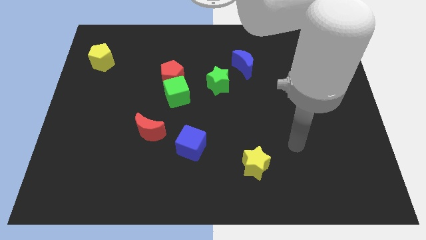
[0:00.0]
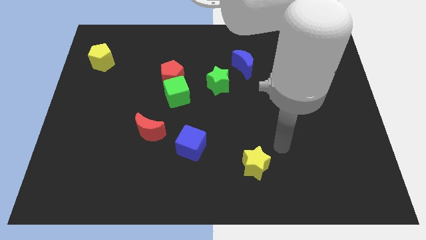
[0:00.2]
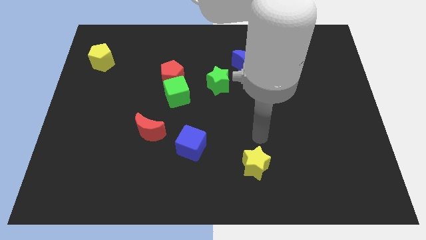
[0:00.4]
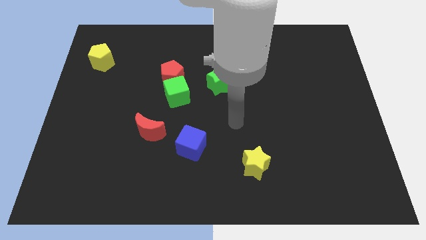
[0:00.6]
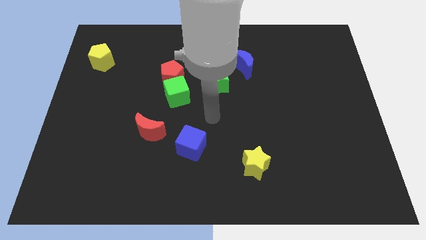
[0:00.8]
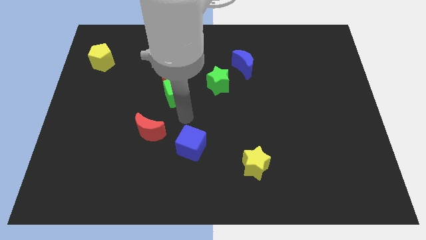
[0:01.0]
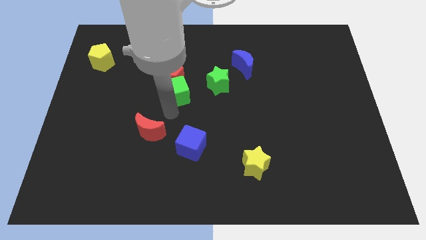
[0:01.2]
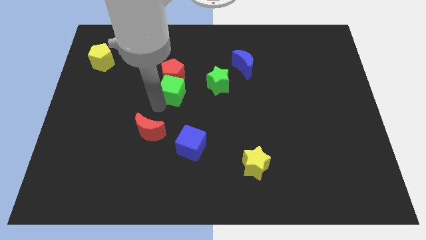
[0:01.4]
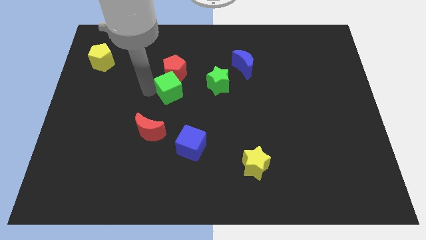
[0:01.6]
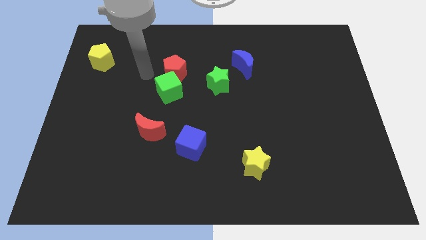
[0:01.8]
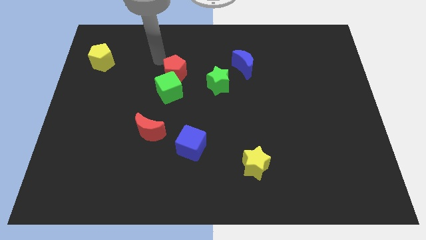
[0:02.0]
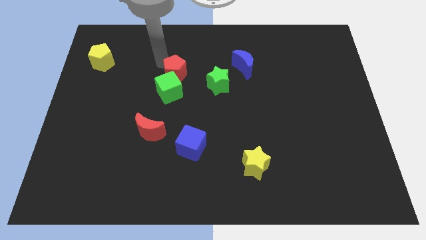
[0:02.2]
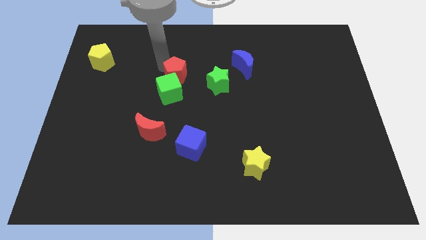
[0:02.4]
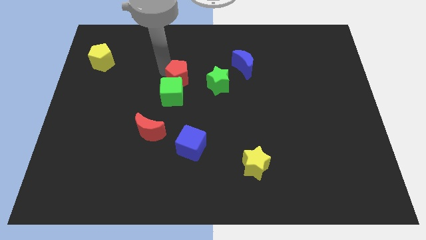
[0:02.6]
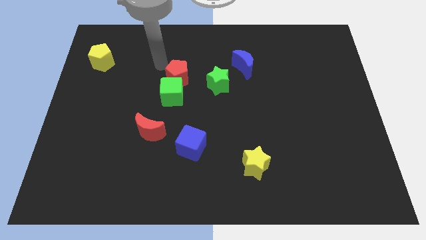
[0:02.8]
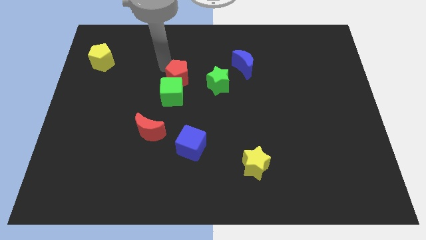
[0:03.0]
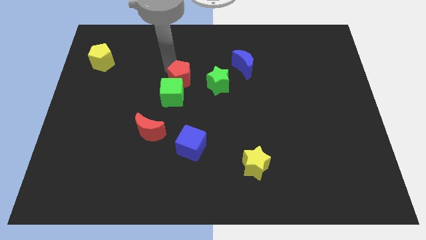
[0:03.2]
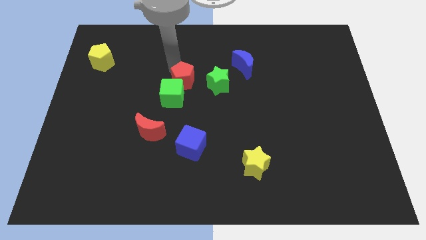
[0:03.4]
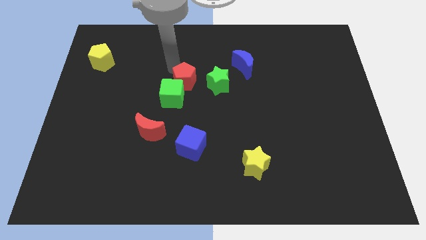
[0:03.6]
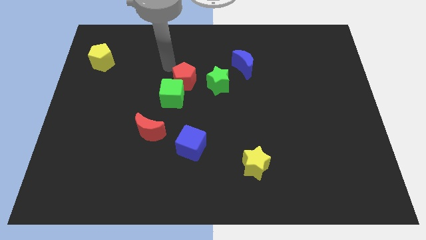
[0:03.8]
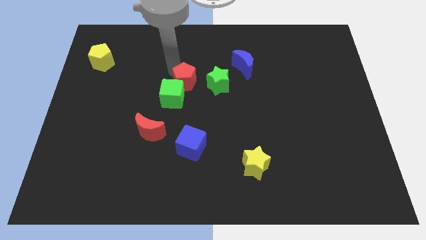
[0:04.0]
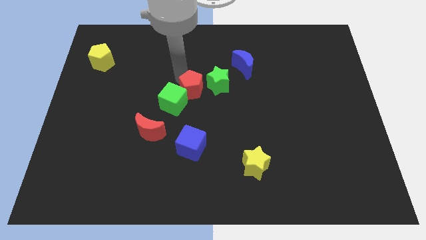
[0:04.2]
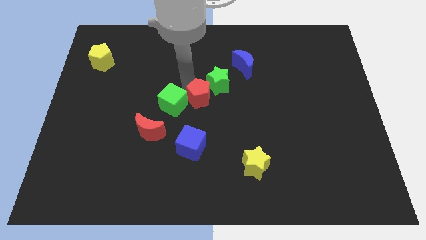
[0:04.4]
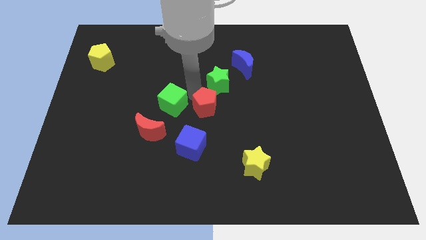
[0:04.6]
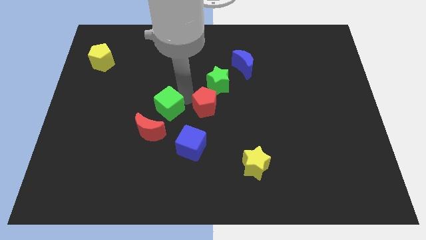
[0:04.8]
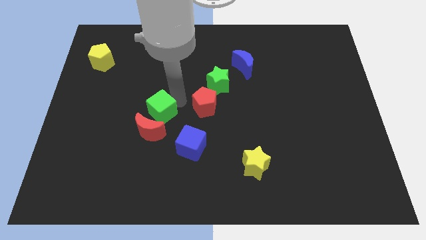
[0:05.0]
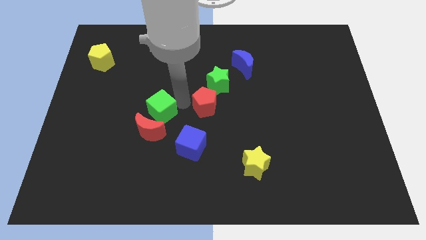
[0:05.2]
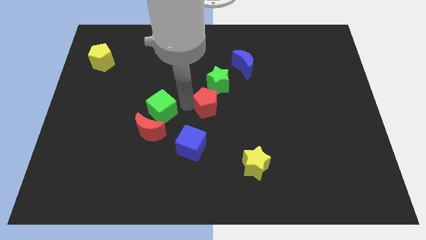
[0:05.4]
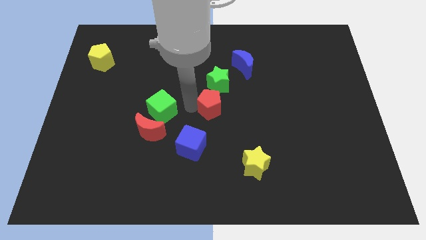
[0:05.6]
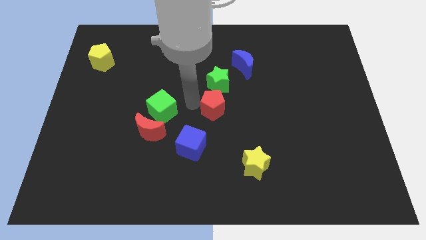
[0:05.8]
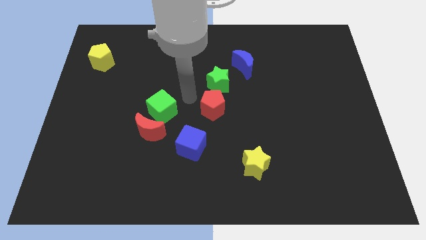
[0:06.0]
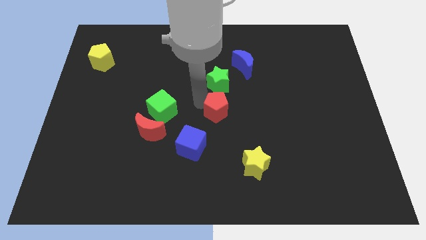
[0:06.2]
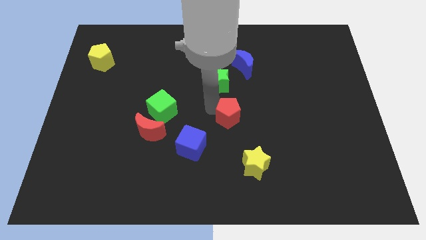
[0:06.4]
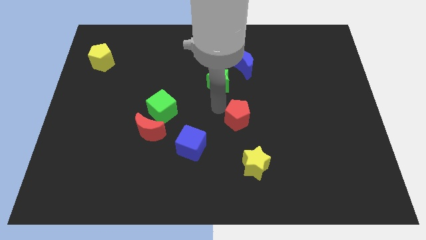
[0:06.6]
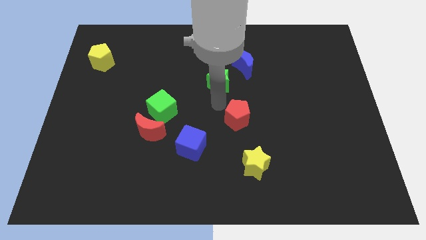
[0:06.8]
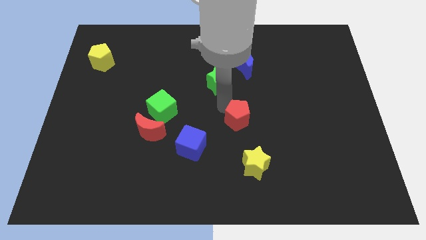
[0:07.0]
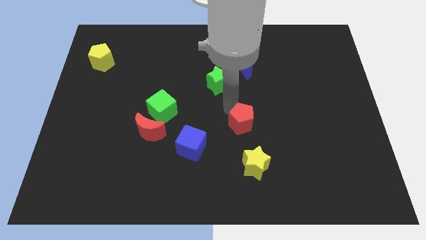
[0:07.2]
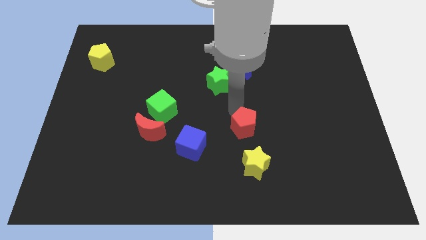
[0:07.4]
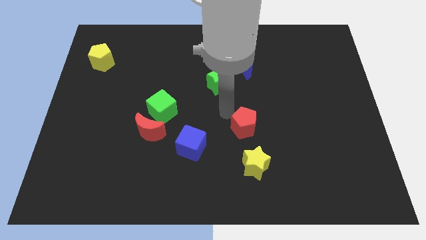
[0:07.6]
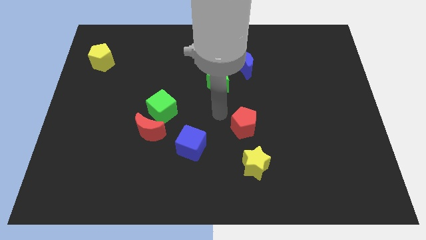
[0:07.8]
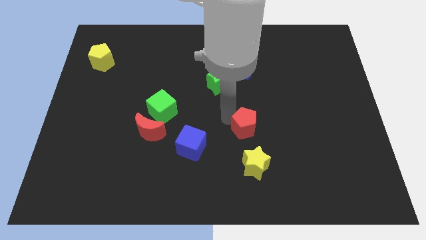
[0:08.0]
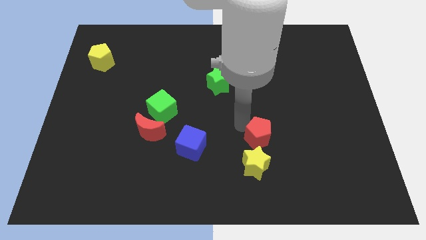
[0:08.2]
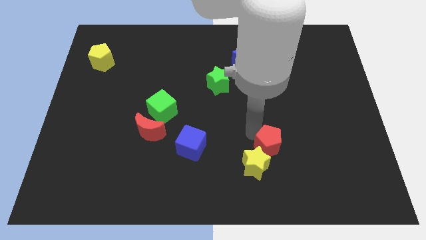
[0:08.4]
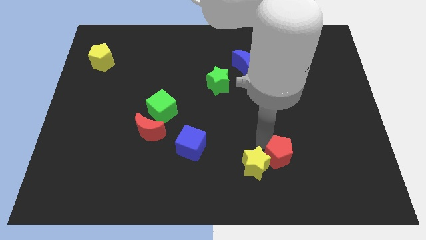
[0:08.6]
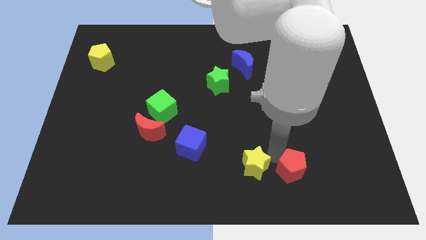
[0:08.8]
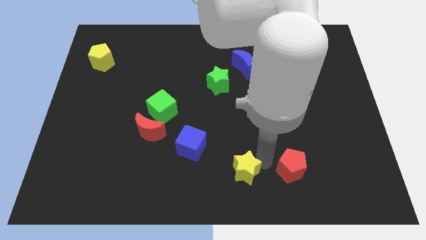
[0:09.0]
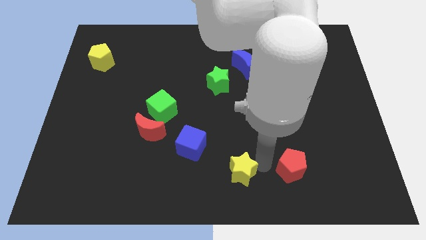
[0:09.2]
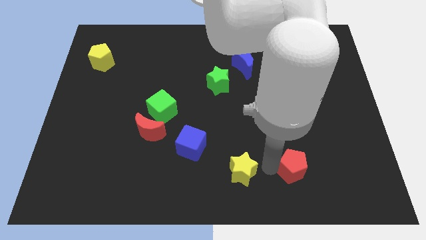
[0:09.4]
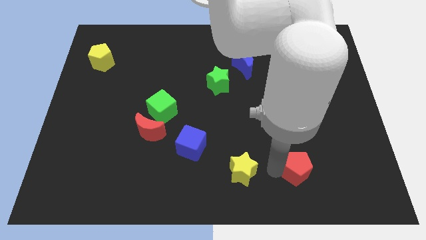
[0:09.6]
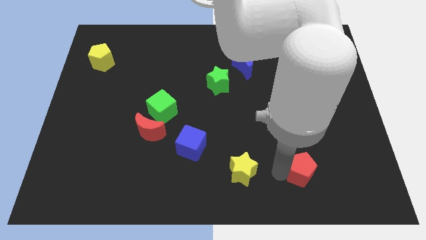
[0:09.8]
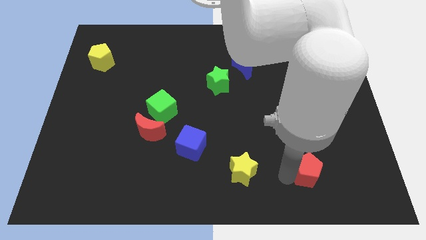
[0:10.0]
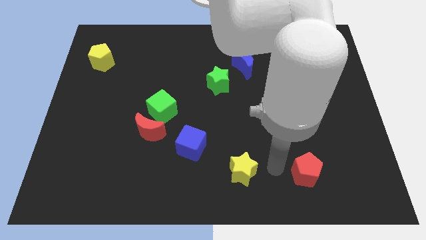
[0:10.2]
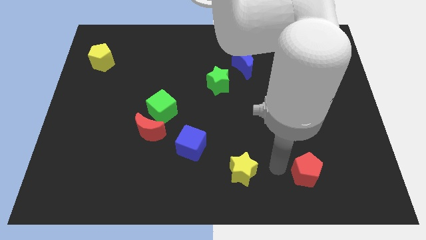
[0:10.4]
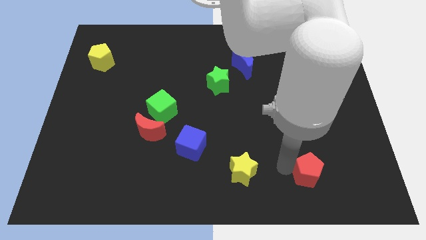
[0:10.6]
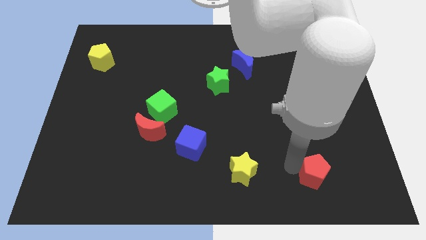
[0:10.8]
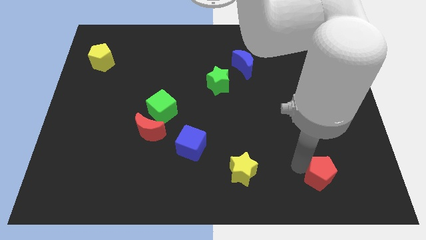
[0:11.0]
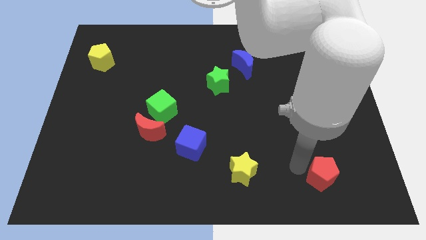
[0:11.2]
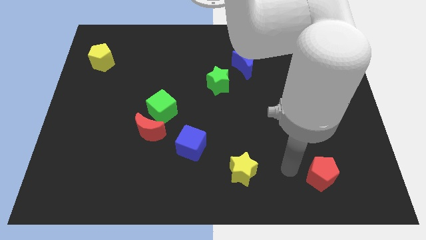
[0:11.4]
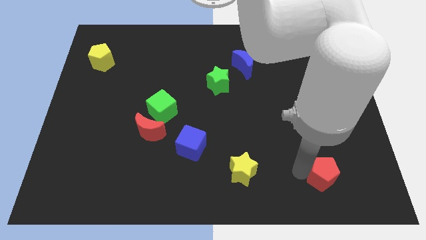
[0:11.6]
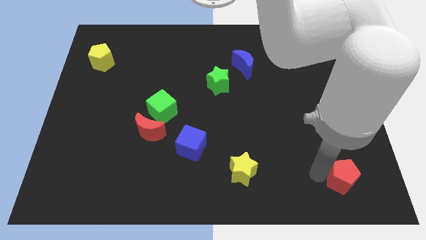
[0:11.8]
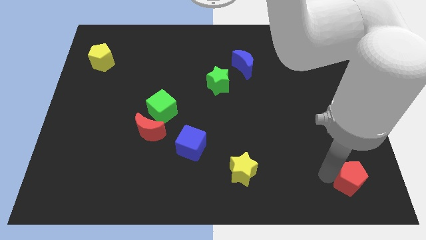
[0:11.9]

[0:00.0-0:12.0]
move the red pentagon to the bottom right

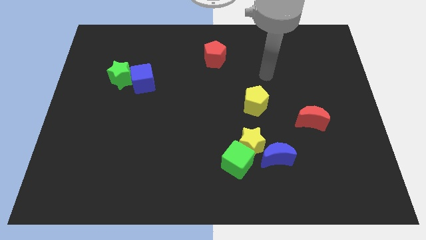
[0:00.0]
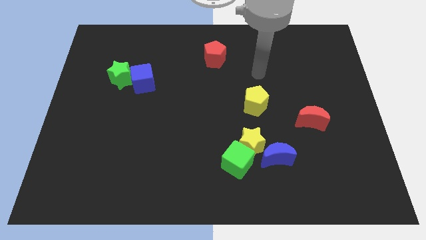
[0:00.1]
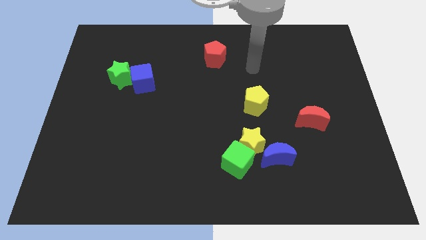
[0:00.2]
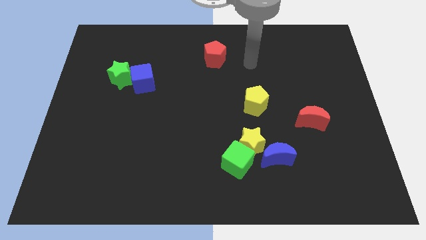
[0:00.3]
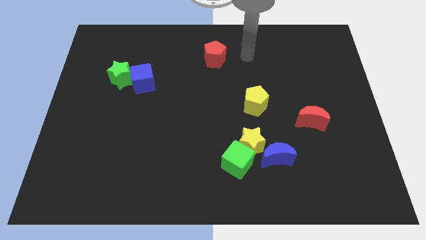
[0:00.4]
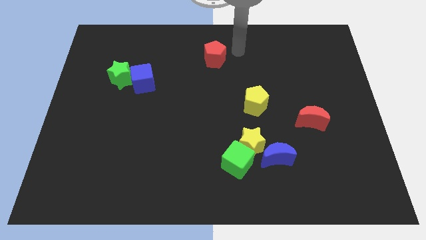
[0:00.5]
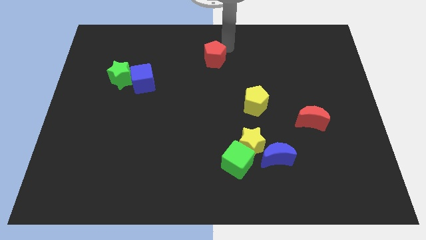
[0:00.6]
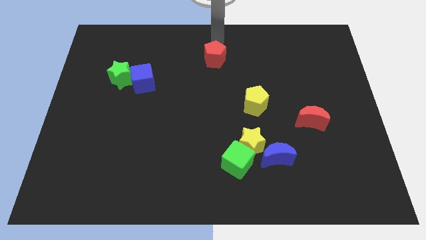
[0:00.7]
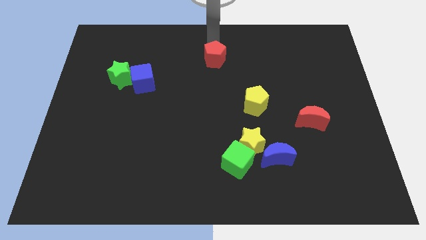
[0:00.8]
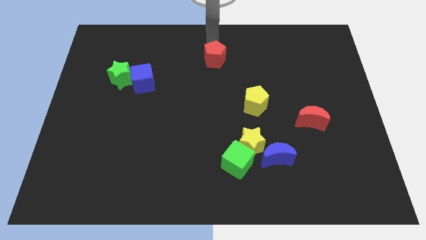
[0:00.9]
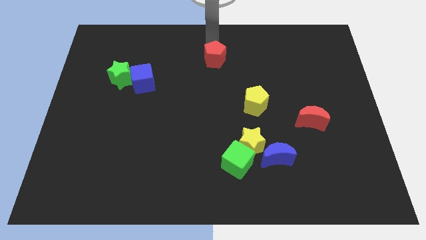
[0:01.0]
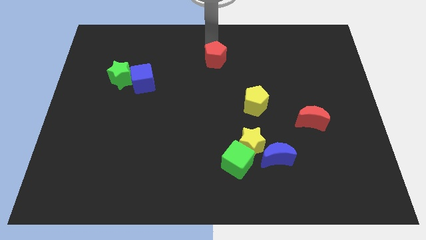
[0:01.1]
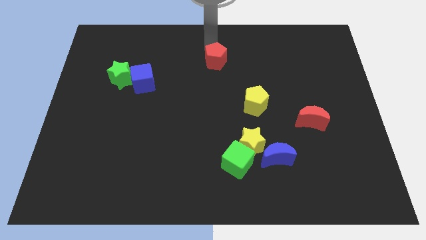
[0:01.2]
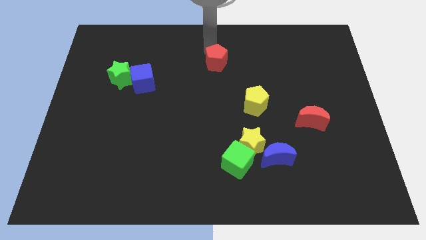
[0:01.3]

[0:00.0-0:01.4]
push the red pentagon to the middle
